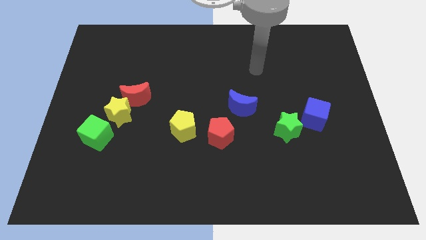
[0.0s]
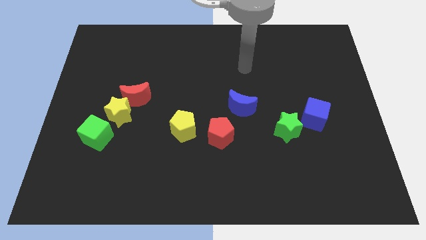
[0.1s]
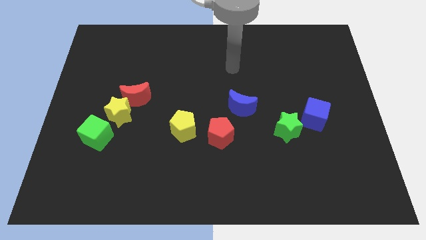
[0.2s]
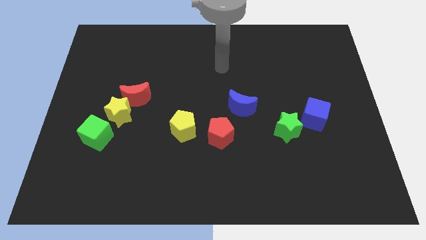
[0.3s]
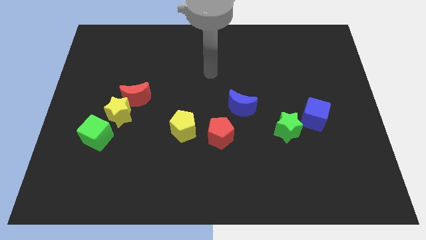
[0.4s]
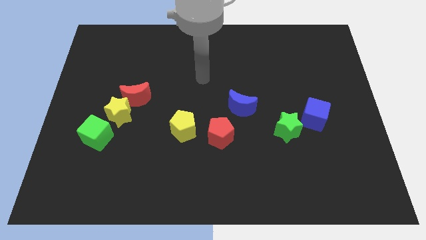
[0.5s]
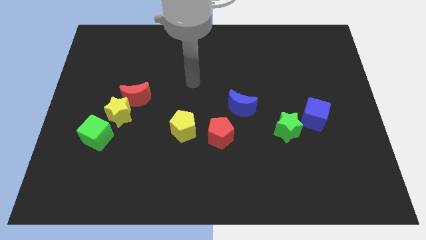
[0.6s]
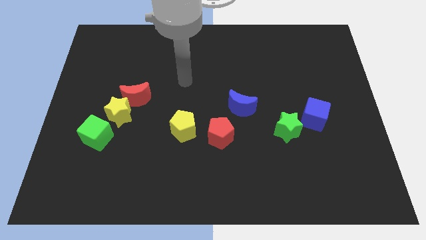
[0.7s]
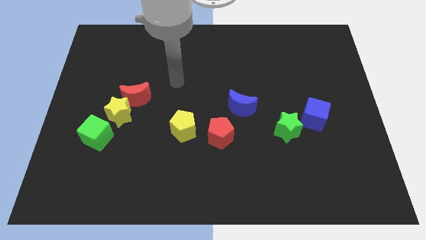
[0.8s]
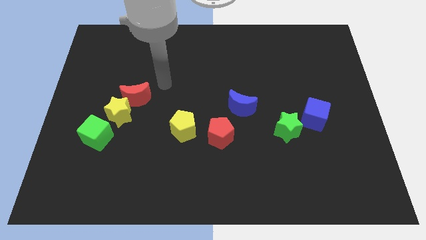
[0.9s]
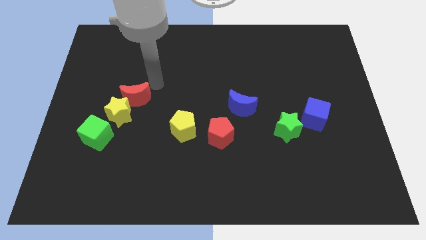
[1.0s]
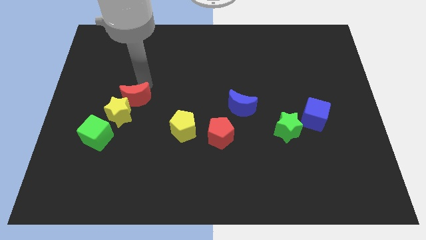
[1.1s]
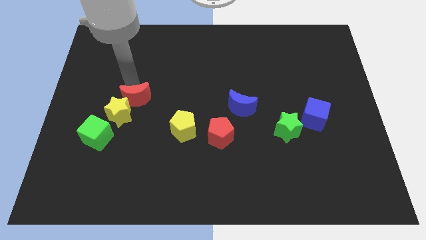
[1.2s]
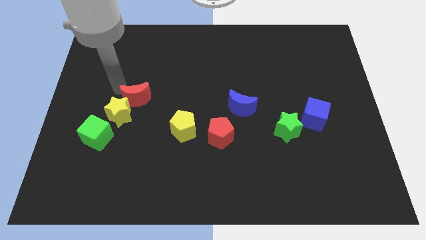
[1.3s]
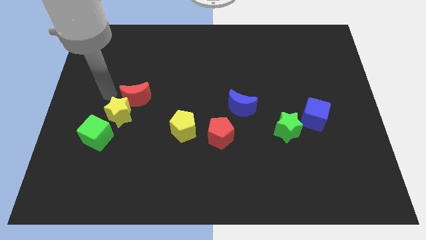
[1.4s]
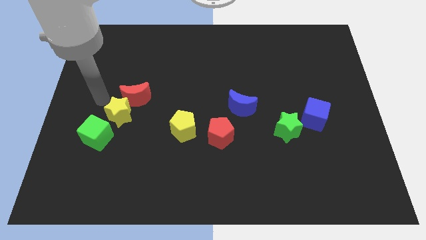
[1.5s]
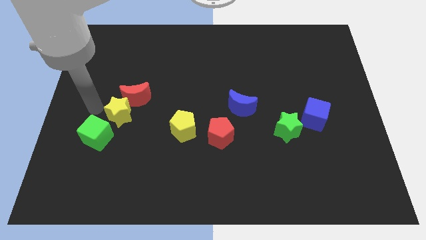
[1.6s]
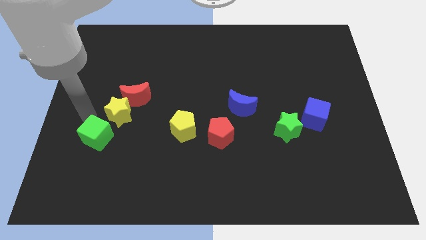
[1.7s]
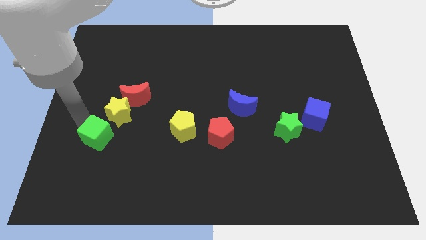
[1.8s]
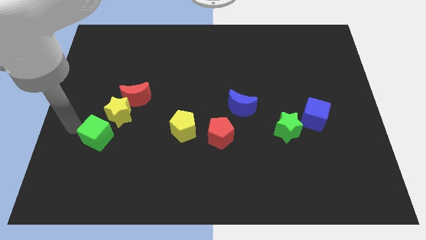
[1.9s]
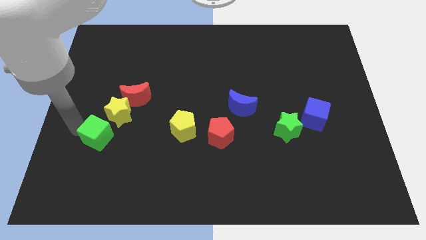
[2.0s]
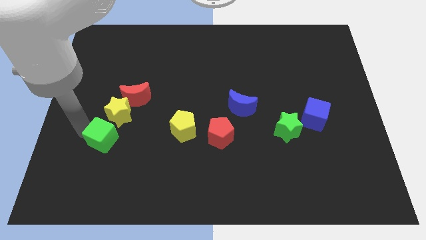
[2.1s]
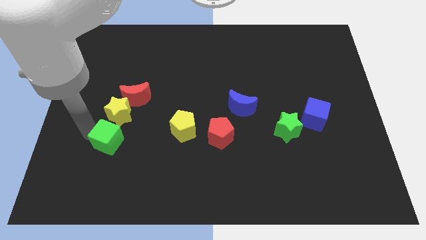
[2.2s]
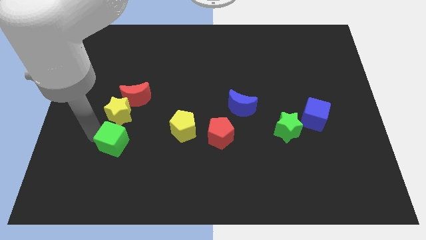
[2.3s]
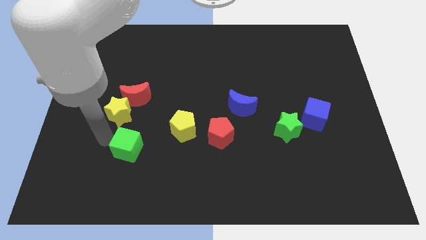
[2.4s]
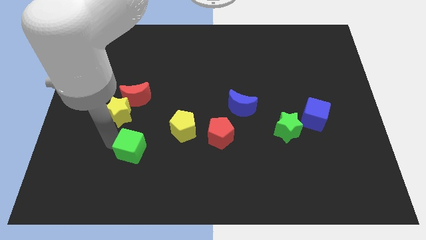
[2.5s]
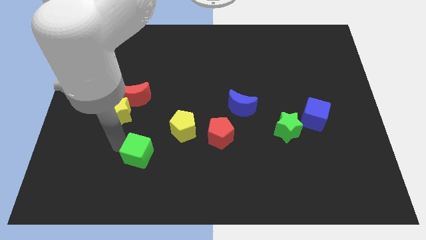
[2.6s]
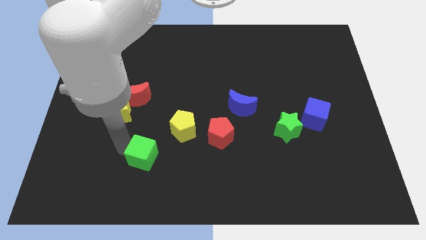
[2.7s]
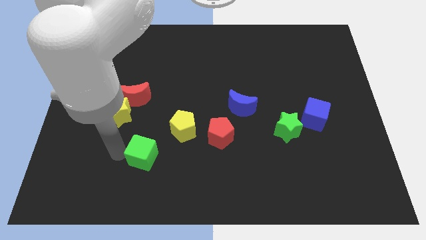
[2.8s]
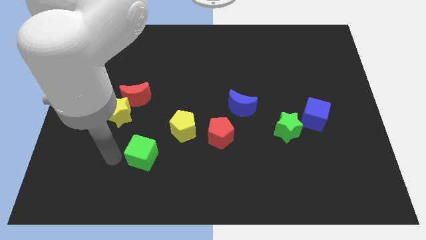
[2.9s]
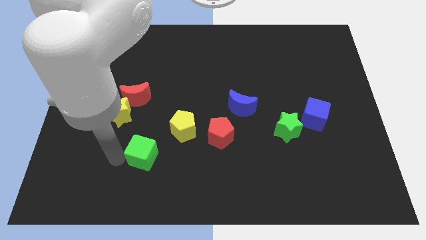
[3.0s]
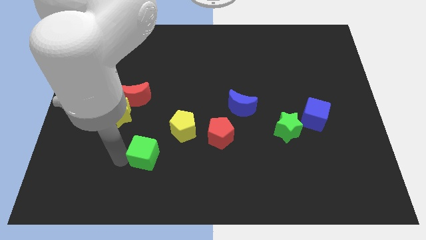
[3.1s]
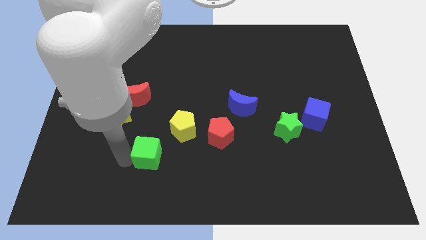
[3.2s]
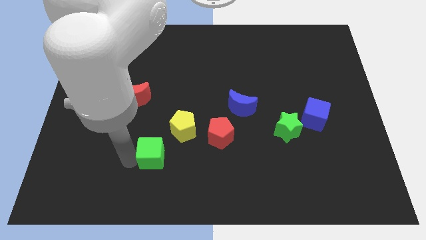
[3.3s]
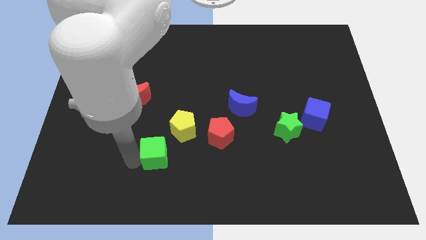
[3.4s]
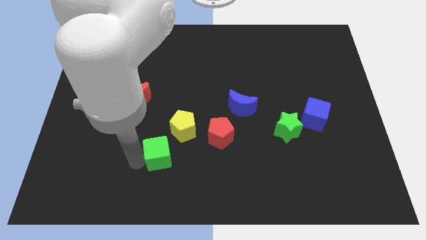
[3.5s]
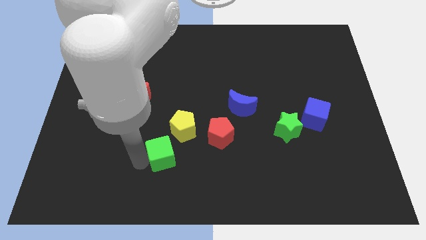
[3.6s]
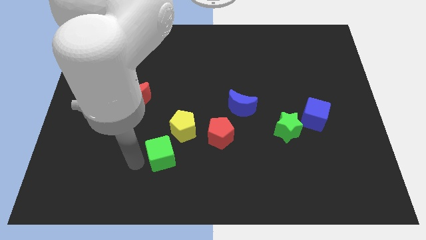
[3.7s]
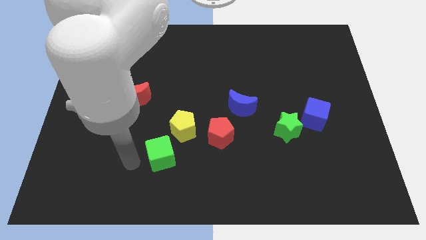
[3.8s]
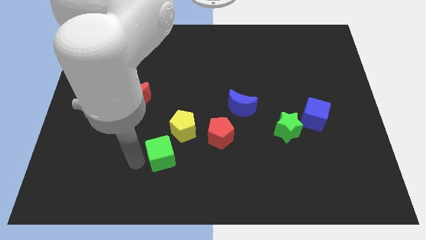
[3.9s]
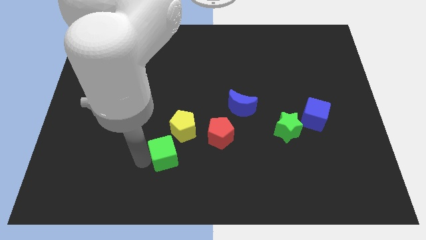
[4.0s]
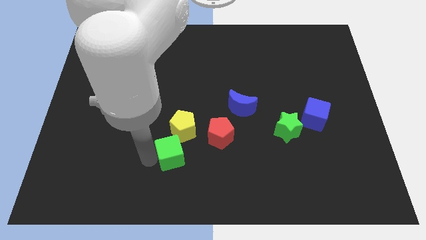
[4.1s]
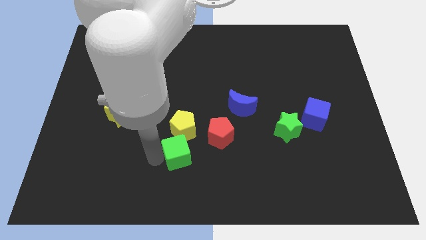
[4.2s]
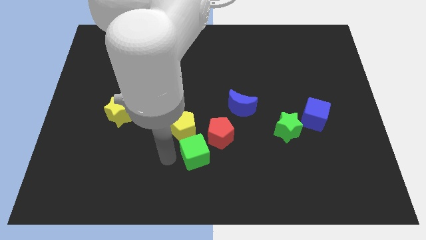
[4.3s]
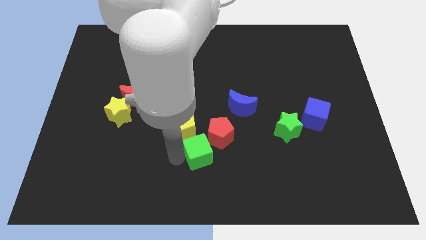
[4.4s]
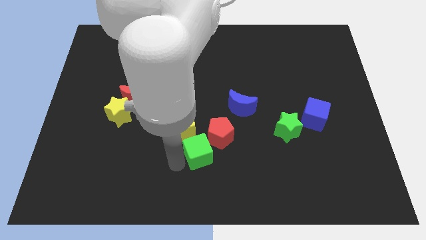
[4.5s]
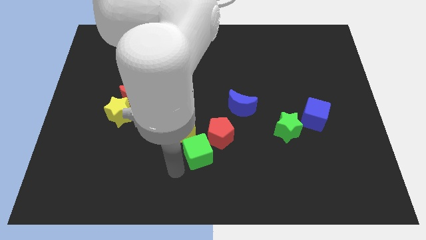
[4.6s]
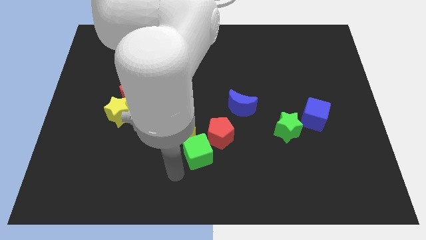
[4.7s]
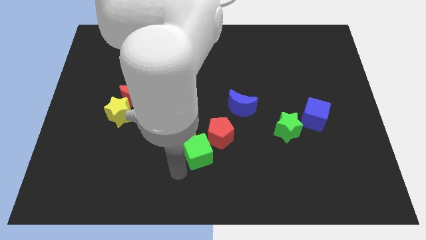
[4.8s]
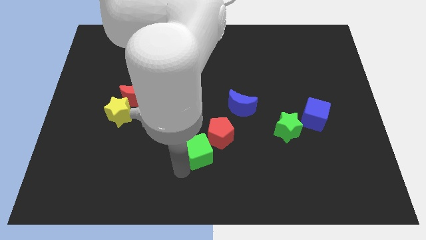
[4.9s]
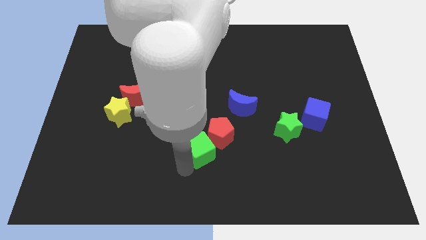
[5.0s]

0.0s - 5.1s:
move the green cube close to the red pentagon

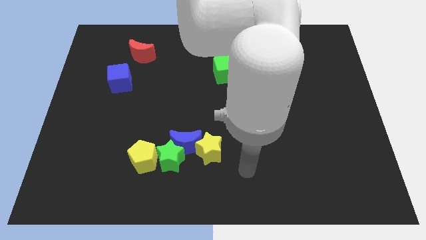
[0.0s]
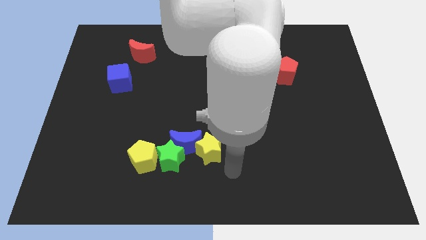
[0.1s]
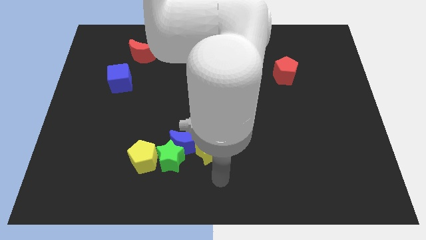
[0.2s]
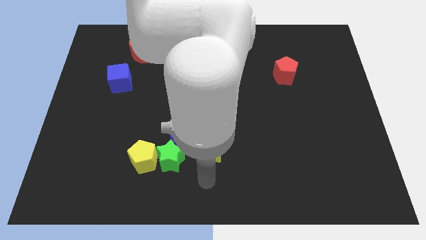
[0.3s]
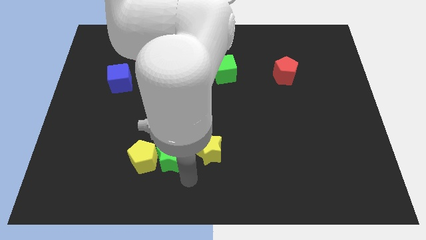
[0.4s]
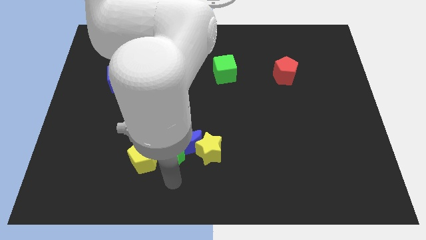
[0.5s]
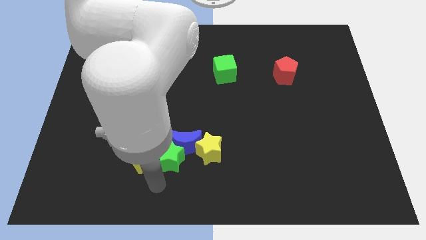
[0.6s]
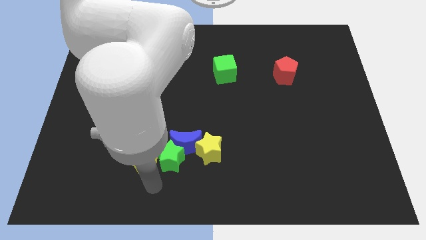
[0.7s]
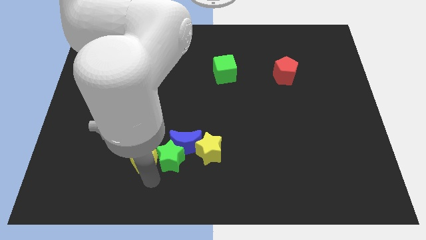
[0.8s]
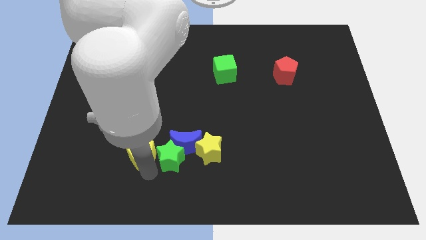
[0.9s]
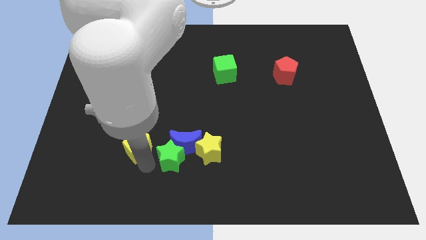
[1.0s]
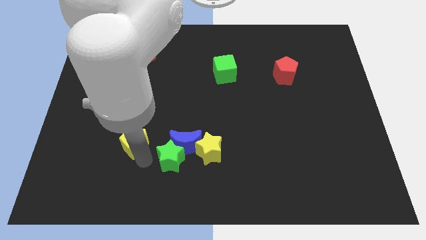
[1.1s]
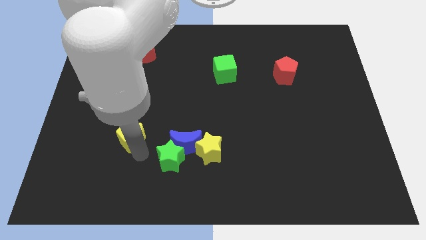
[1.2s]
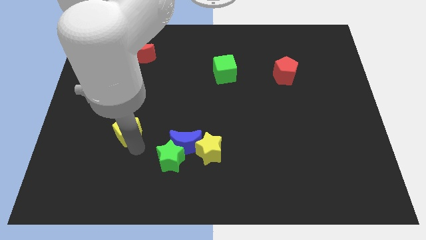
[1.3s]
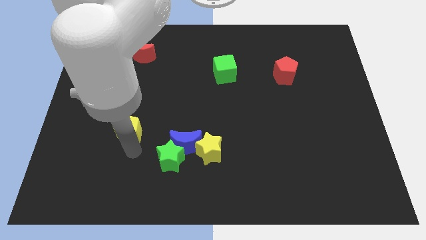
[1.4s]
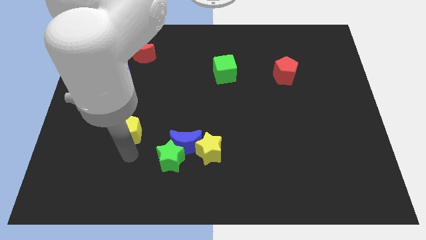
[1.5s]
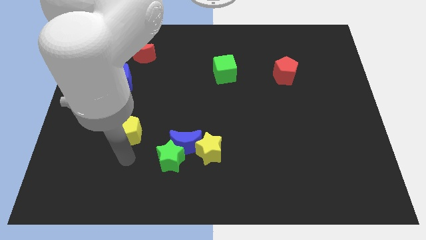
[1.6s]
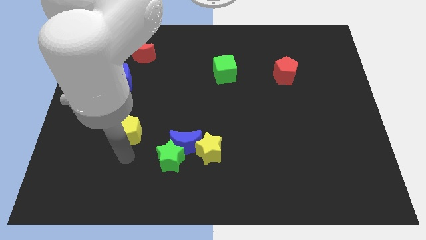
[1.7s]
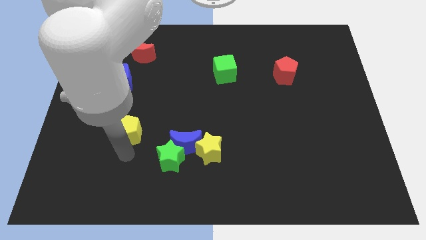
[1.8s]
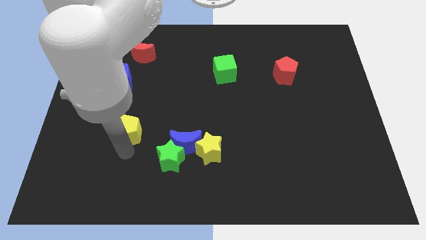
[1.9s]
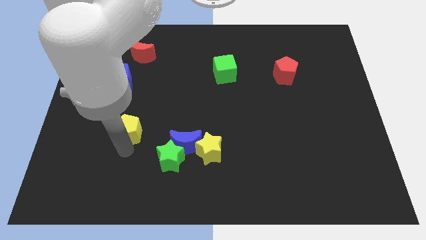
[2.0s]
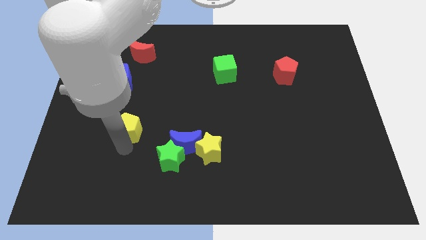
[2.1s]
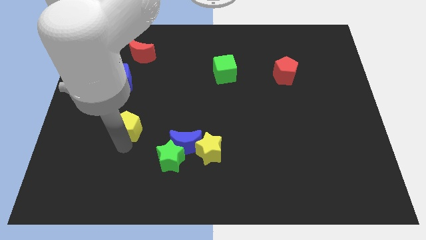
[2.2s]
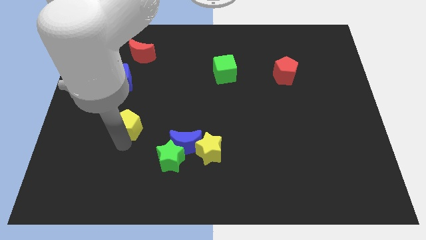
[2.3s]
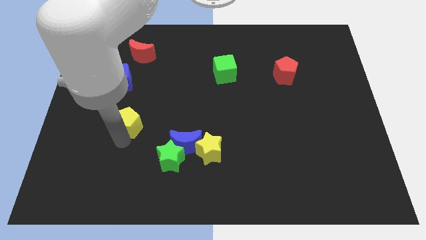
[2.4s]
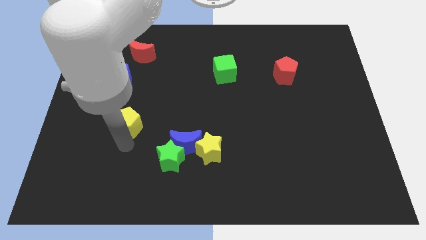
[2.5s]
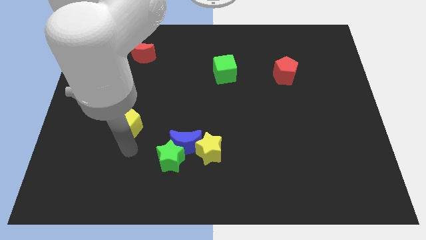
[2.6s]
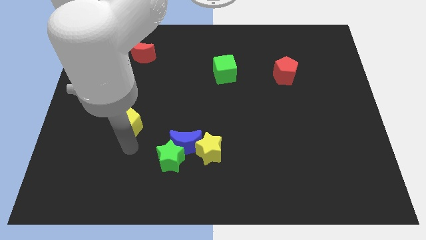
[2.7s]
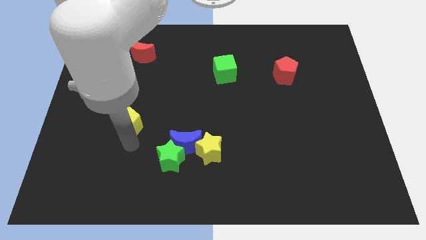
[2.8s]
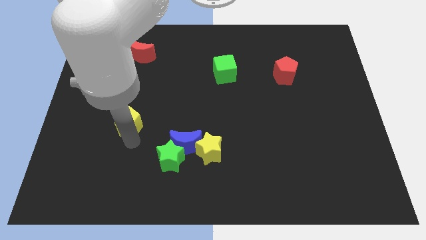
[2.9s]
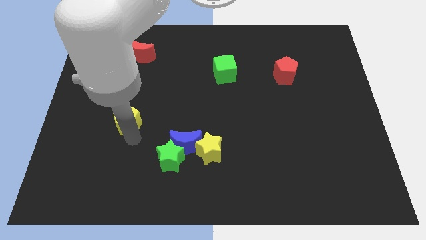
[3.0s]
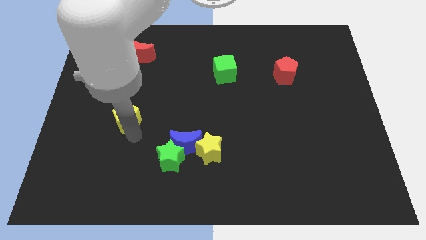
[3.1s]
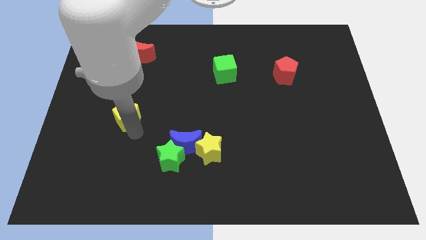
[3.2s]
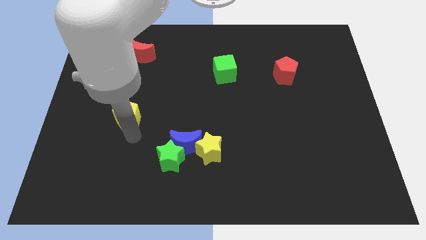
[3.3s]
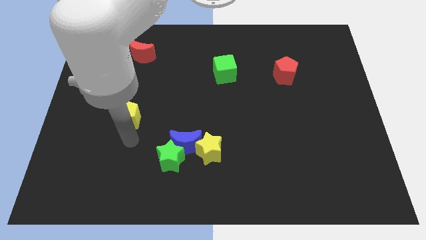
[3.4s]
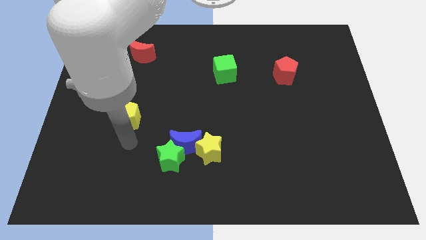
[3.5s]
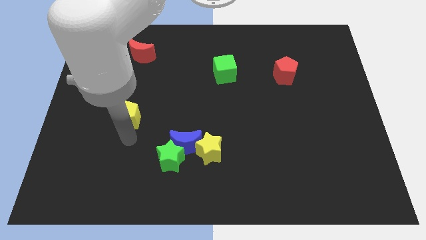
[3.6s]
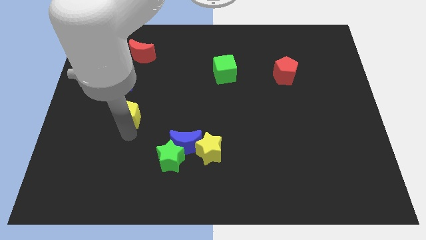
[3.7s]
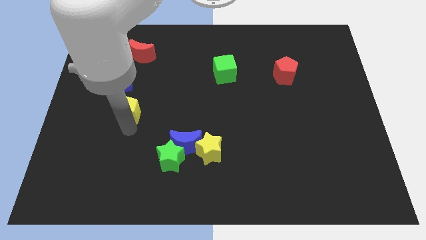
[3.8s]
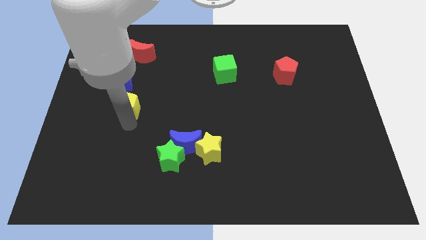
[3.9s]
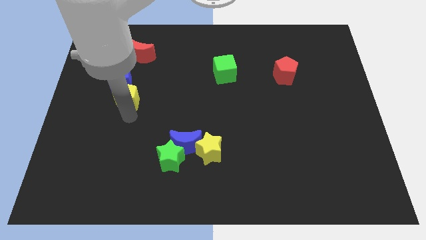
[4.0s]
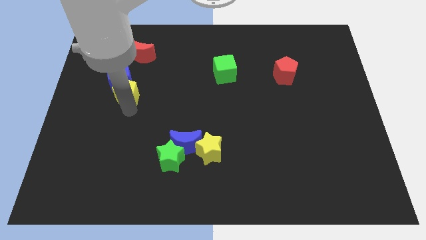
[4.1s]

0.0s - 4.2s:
push the yellow pentagon close to the blue cube
